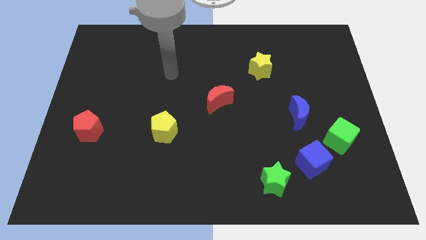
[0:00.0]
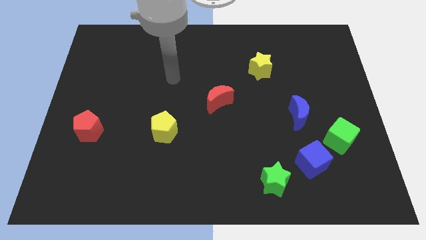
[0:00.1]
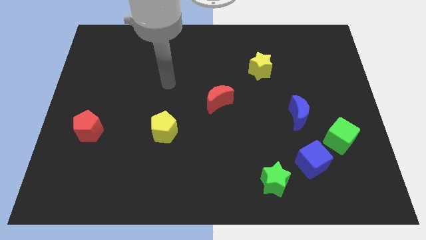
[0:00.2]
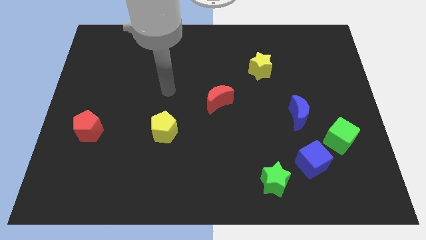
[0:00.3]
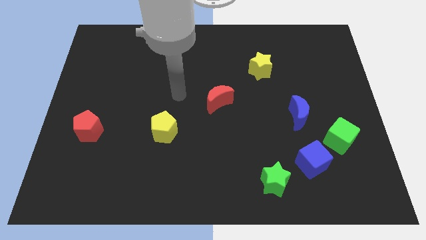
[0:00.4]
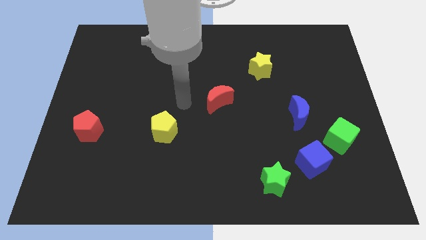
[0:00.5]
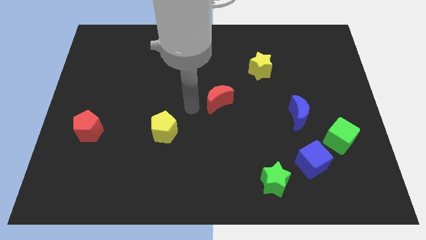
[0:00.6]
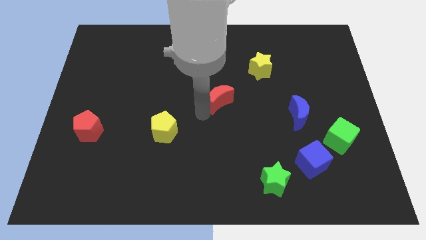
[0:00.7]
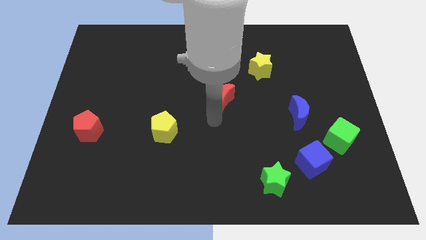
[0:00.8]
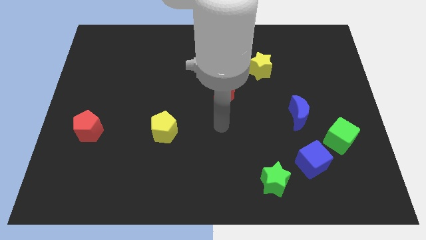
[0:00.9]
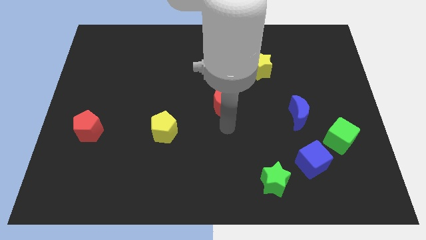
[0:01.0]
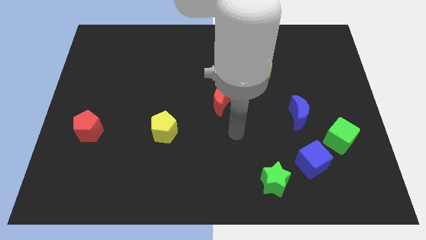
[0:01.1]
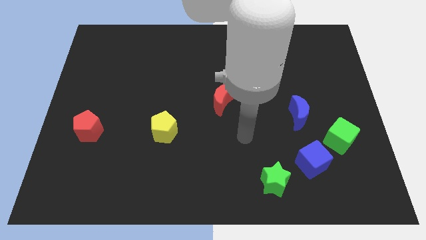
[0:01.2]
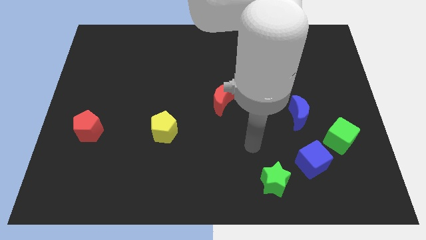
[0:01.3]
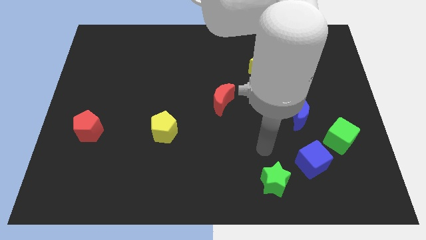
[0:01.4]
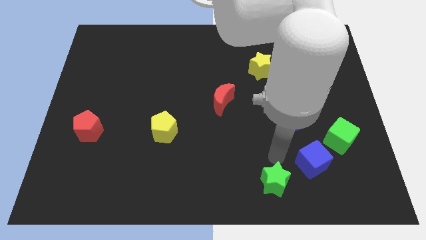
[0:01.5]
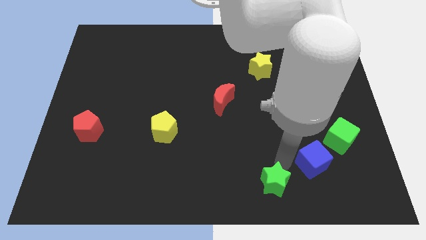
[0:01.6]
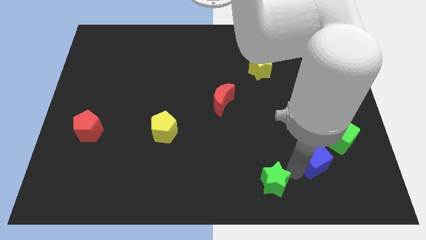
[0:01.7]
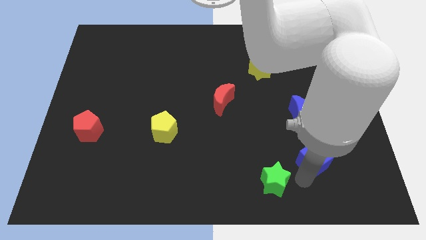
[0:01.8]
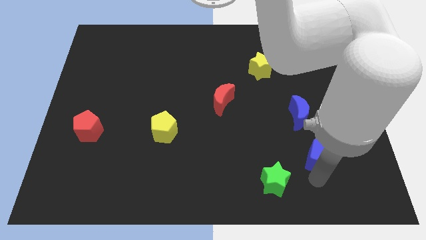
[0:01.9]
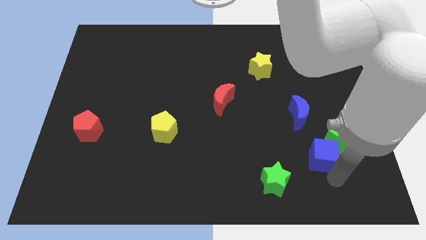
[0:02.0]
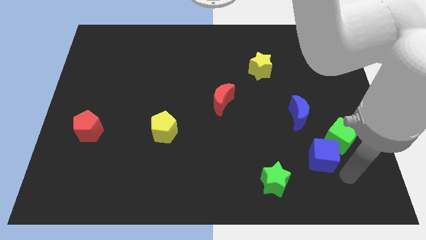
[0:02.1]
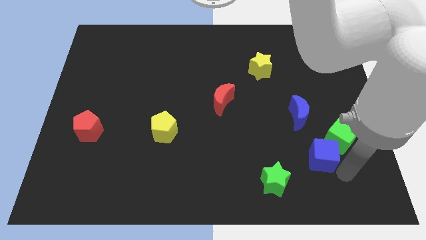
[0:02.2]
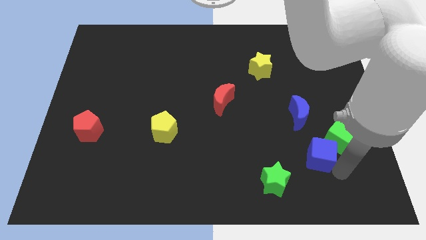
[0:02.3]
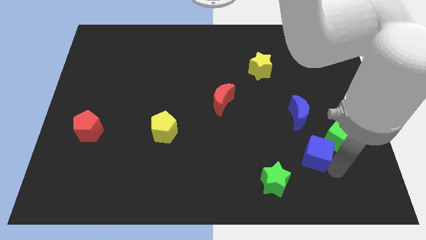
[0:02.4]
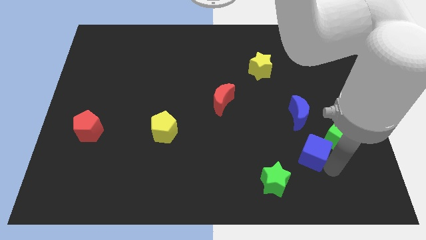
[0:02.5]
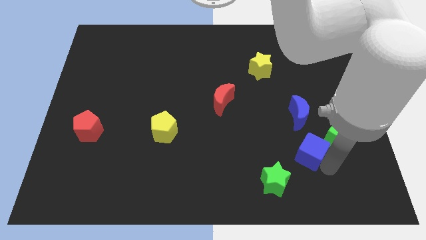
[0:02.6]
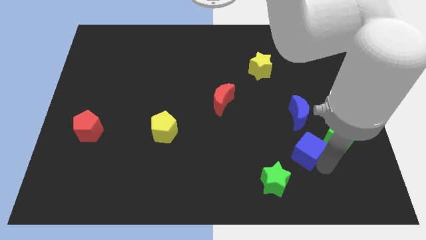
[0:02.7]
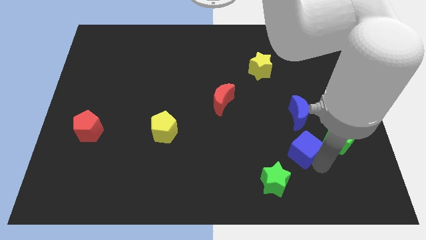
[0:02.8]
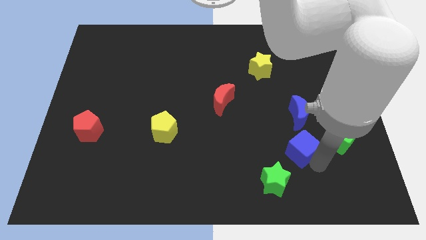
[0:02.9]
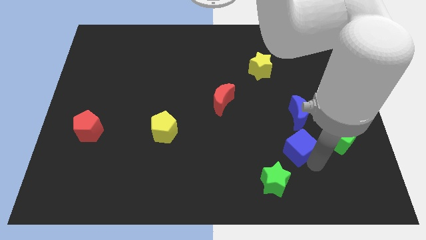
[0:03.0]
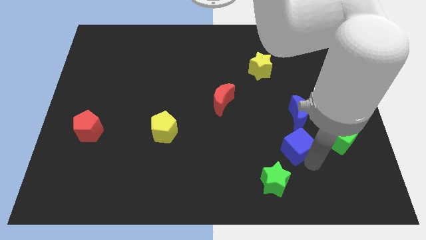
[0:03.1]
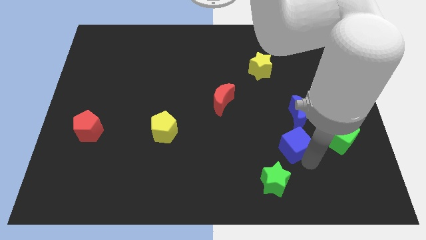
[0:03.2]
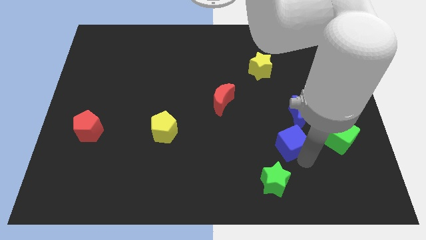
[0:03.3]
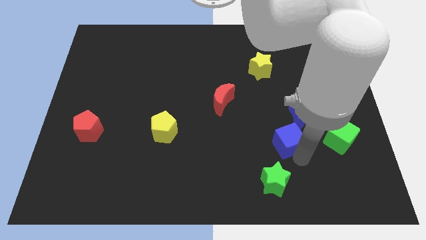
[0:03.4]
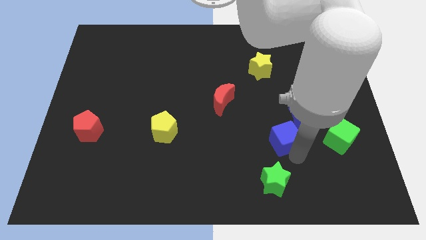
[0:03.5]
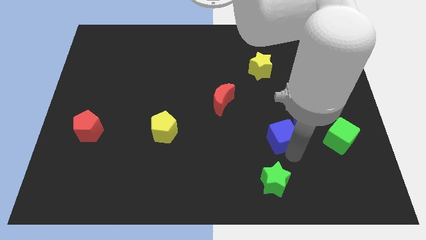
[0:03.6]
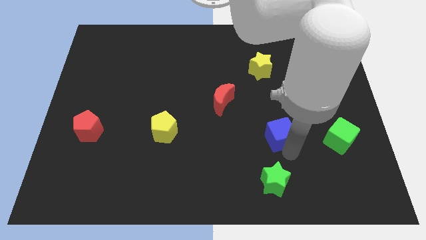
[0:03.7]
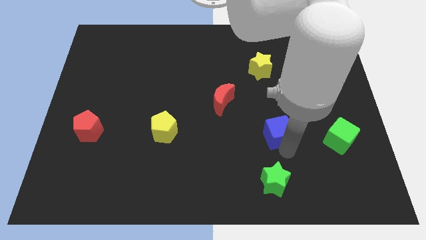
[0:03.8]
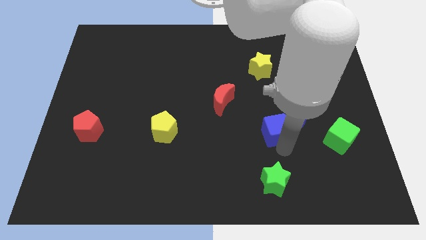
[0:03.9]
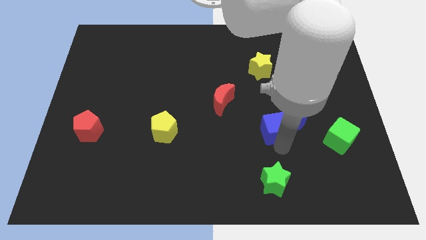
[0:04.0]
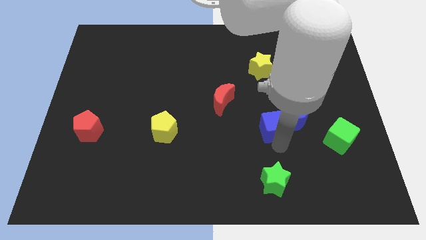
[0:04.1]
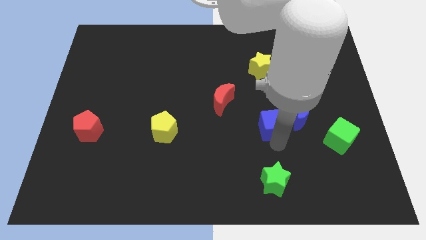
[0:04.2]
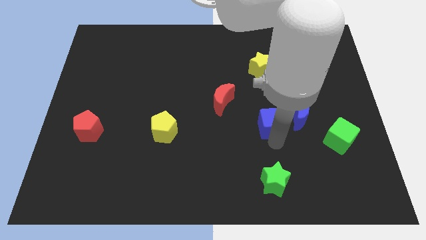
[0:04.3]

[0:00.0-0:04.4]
slightly slide the blue cube upwards

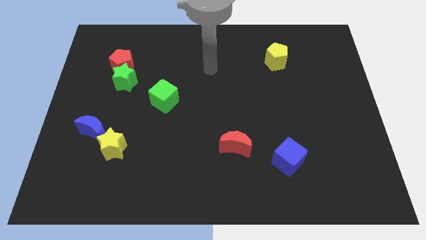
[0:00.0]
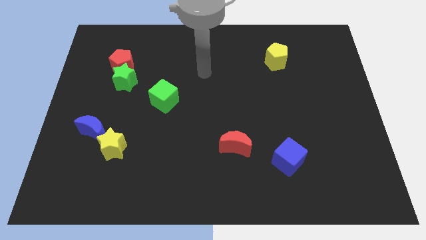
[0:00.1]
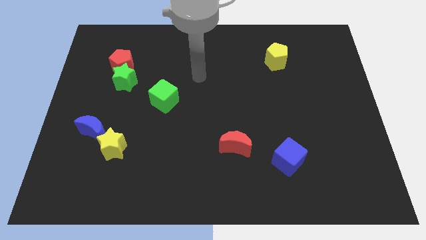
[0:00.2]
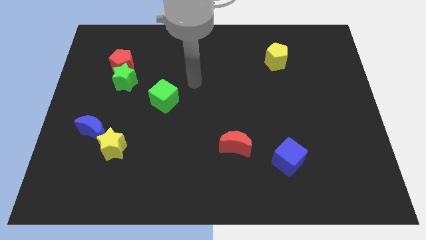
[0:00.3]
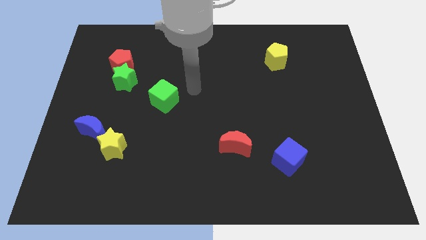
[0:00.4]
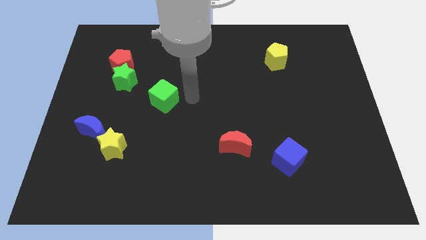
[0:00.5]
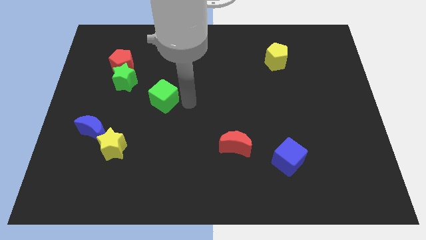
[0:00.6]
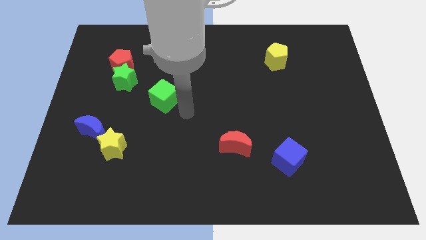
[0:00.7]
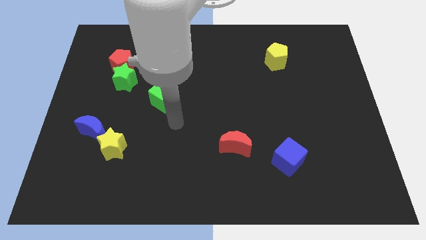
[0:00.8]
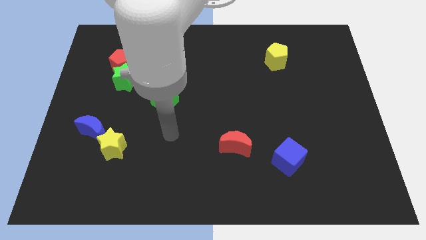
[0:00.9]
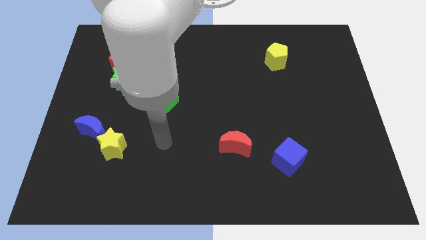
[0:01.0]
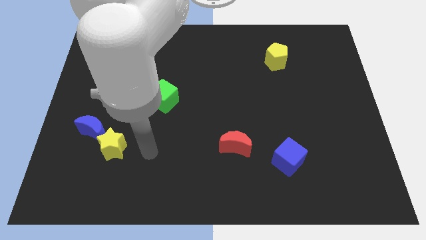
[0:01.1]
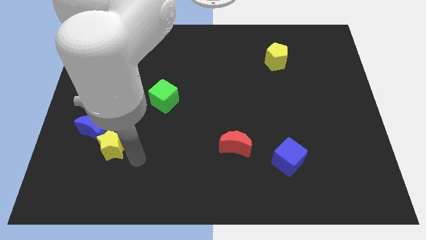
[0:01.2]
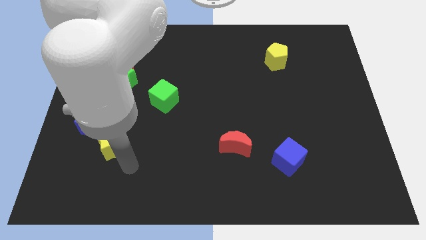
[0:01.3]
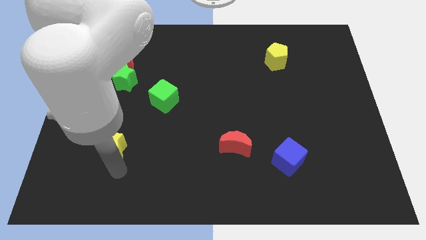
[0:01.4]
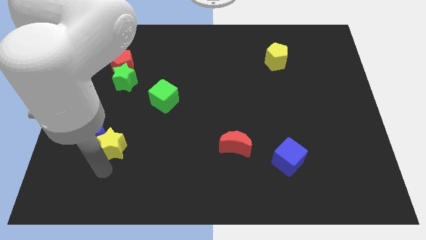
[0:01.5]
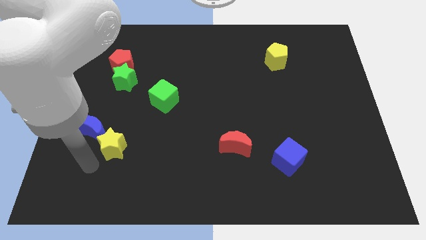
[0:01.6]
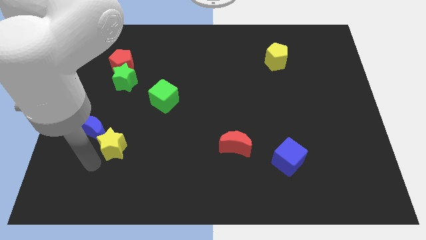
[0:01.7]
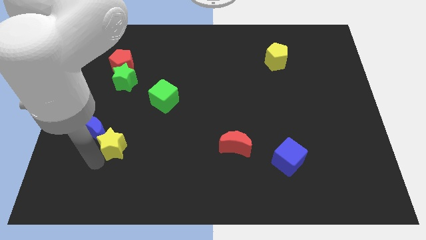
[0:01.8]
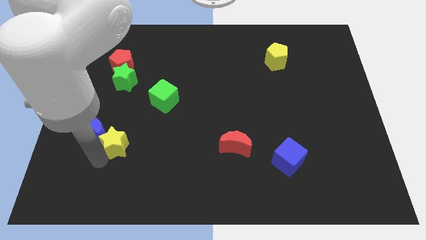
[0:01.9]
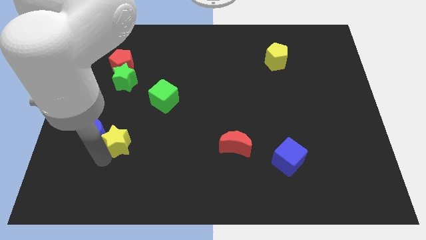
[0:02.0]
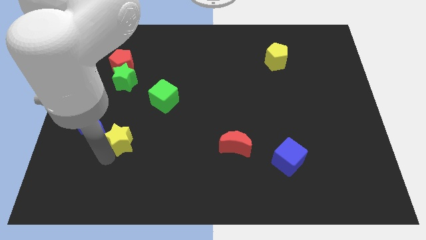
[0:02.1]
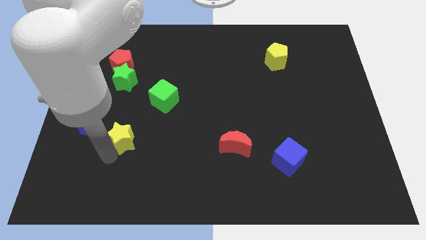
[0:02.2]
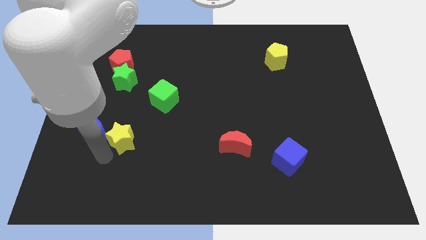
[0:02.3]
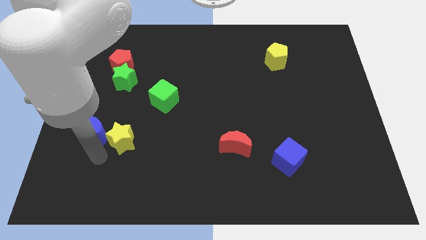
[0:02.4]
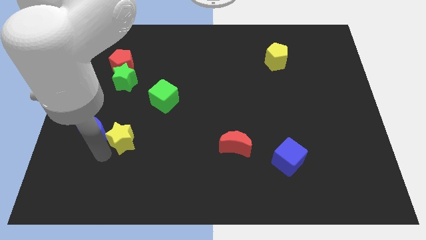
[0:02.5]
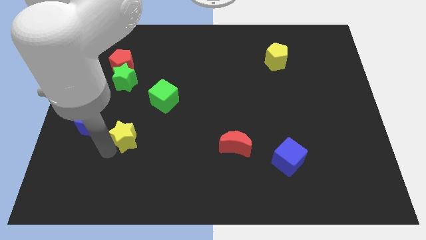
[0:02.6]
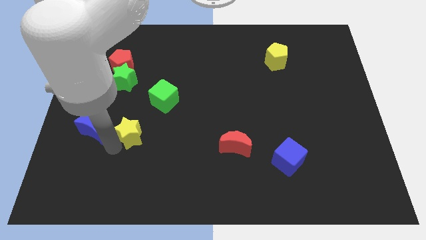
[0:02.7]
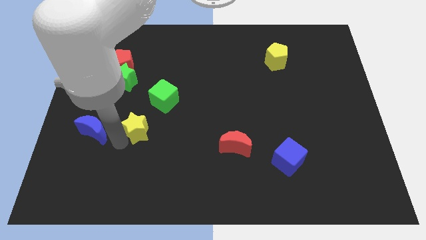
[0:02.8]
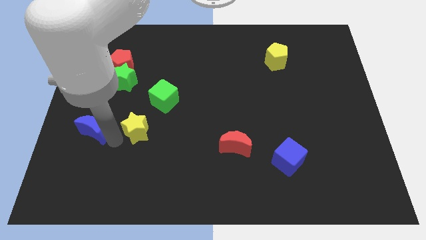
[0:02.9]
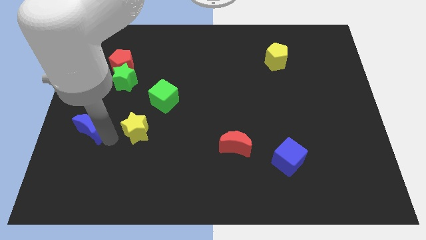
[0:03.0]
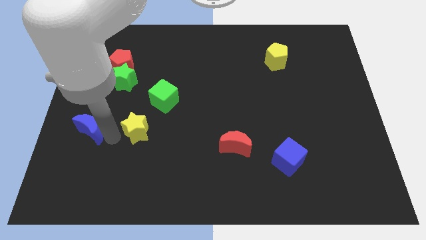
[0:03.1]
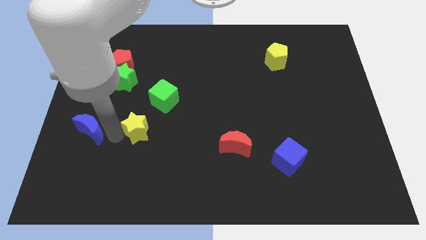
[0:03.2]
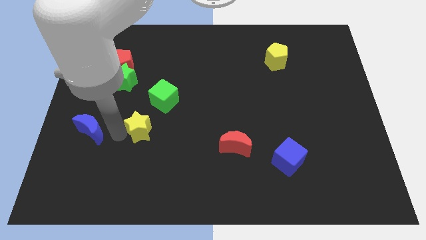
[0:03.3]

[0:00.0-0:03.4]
move the yellow star up and then right slightly

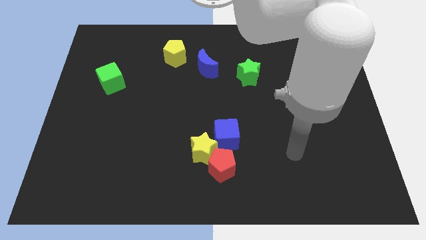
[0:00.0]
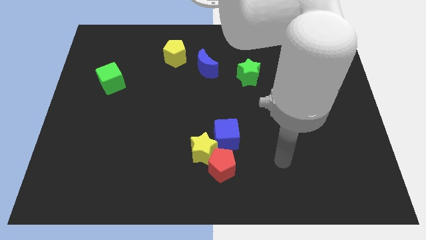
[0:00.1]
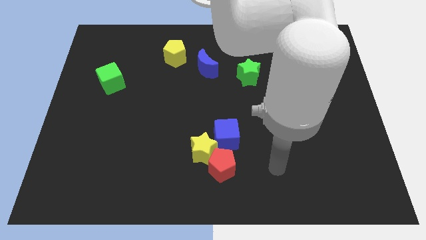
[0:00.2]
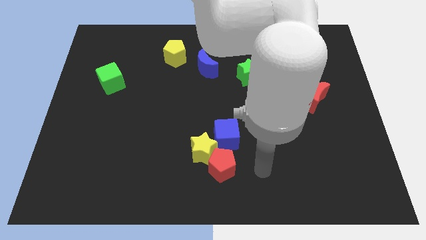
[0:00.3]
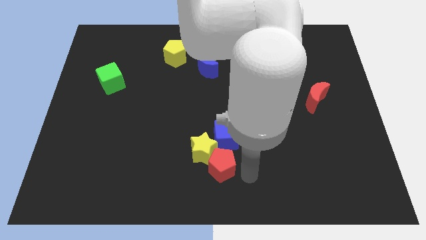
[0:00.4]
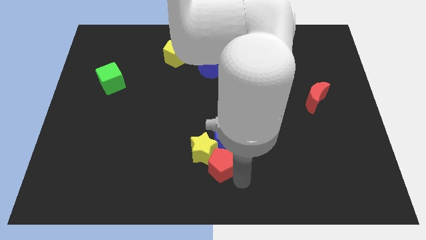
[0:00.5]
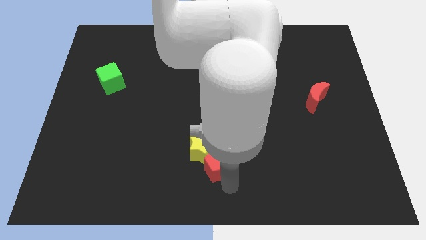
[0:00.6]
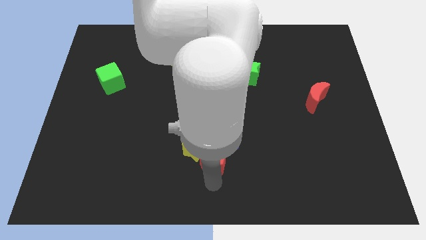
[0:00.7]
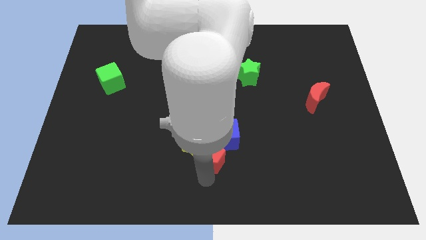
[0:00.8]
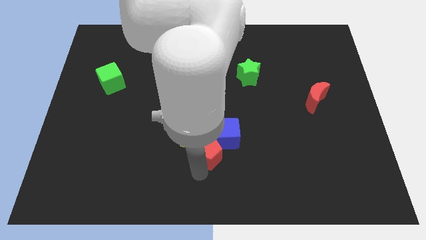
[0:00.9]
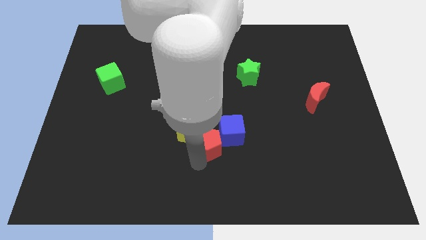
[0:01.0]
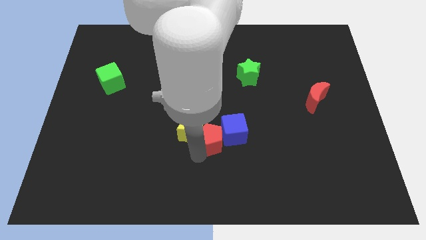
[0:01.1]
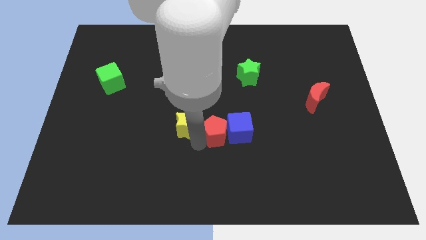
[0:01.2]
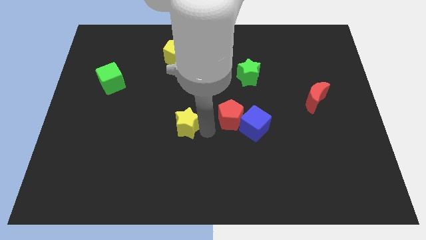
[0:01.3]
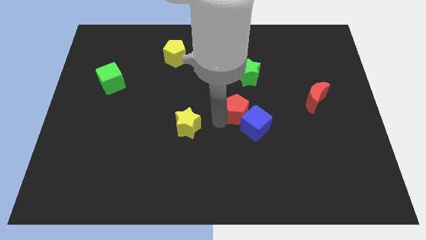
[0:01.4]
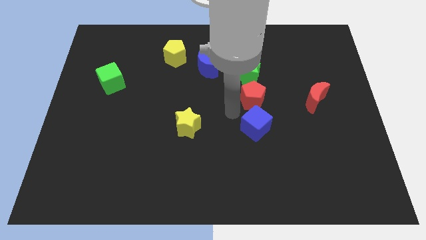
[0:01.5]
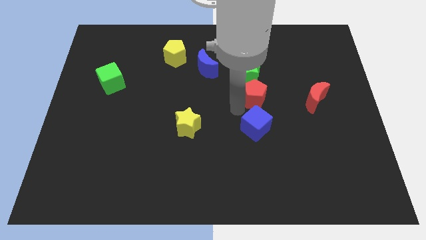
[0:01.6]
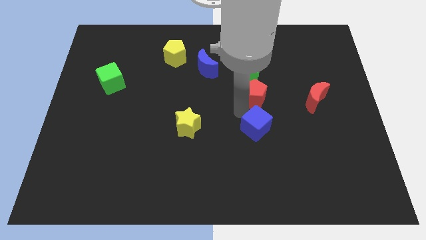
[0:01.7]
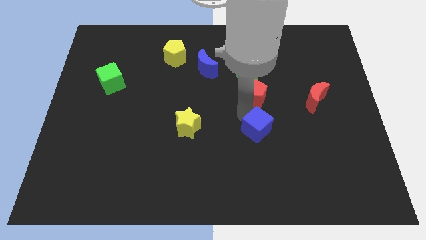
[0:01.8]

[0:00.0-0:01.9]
slide the blue cube a little to the right
